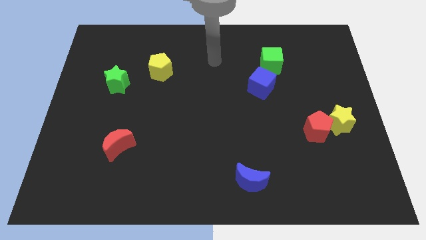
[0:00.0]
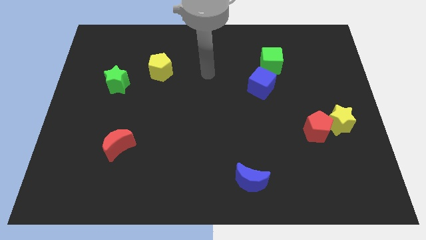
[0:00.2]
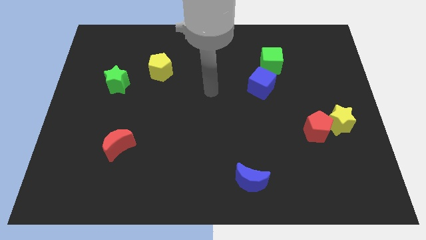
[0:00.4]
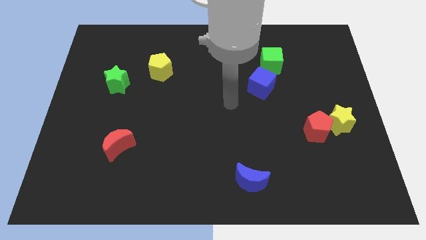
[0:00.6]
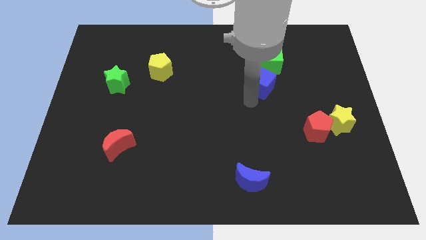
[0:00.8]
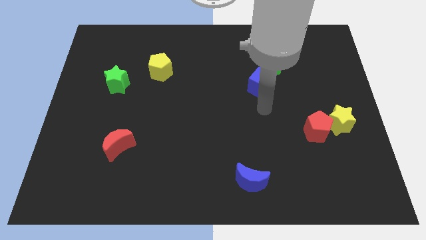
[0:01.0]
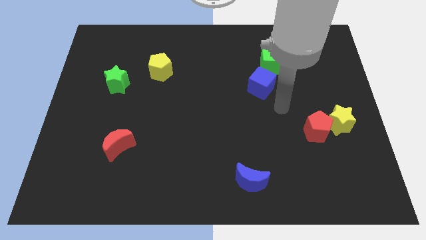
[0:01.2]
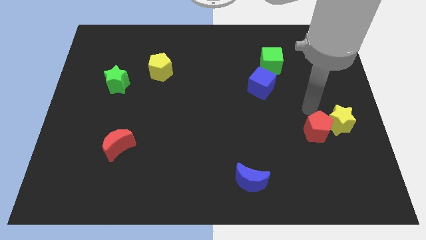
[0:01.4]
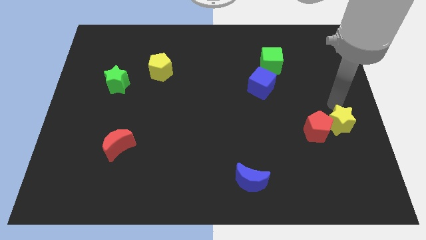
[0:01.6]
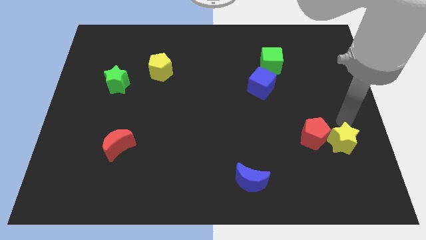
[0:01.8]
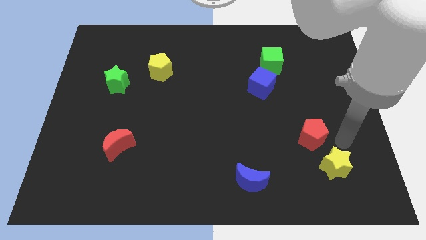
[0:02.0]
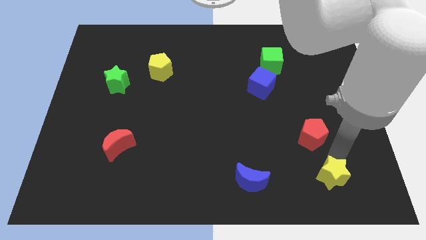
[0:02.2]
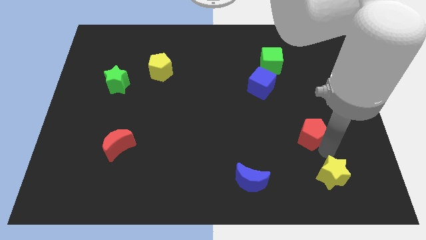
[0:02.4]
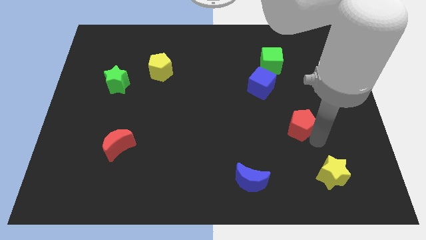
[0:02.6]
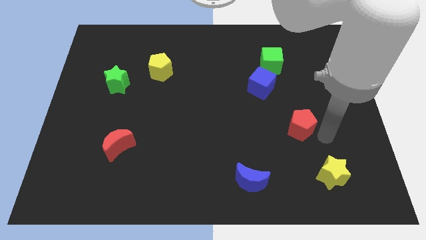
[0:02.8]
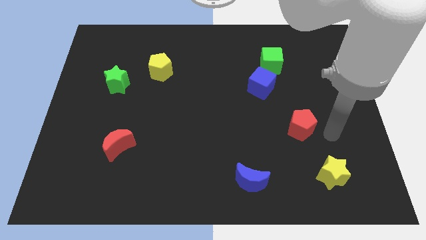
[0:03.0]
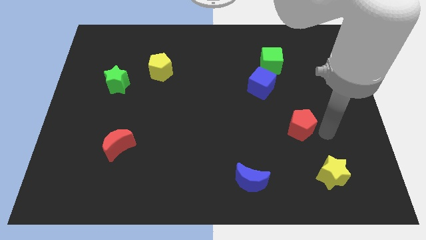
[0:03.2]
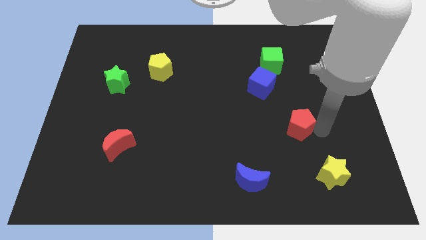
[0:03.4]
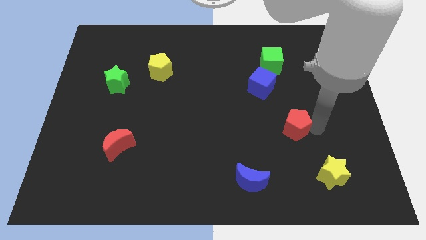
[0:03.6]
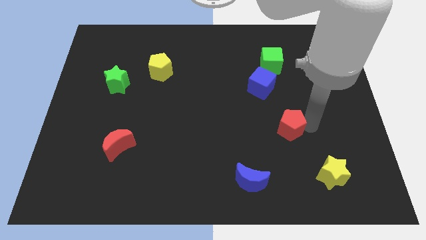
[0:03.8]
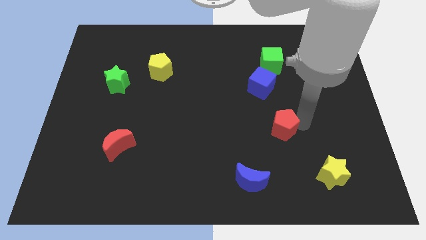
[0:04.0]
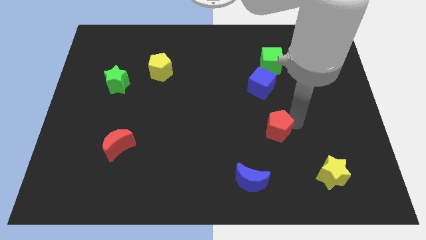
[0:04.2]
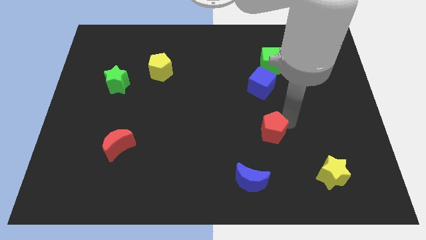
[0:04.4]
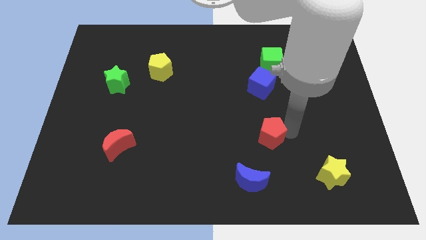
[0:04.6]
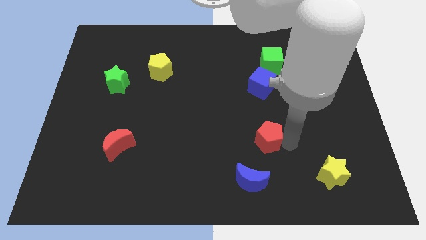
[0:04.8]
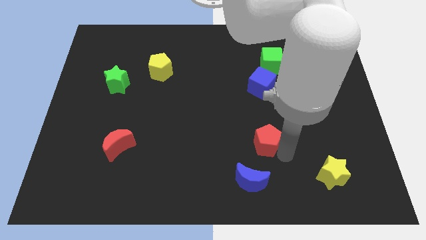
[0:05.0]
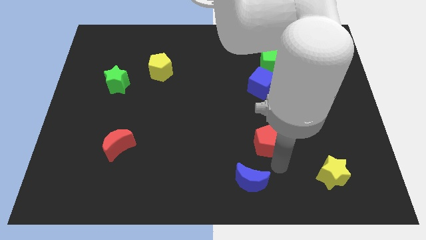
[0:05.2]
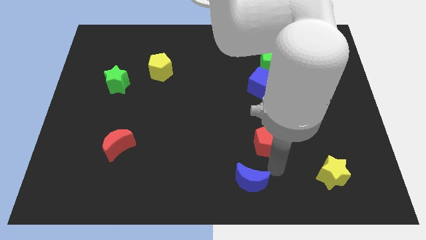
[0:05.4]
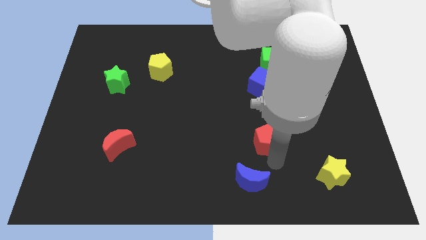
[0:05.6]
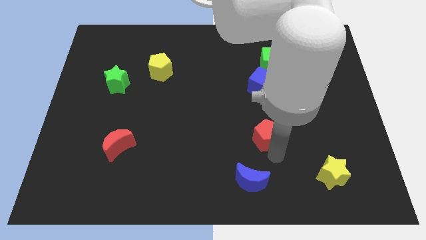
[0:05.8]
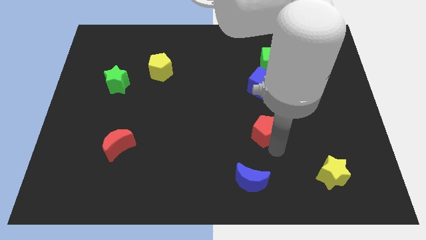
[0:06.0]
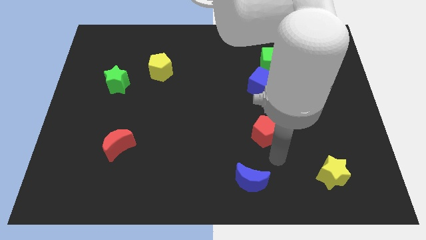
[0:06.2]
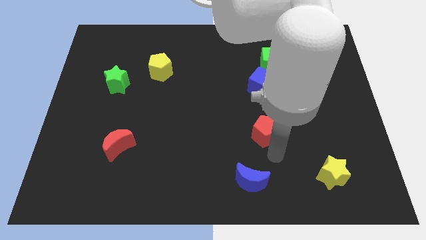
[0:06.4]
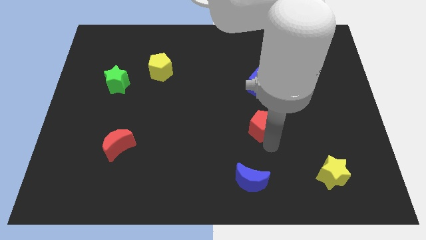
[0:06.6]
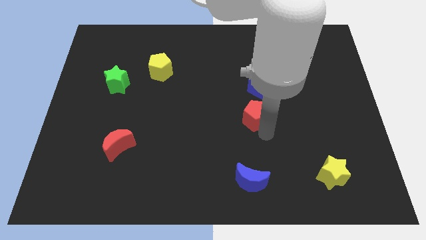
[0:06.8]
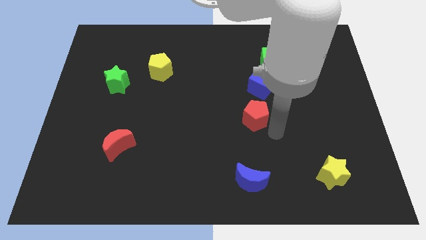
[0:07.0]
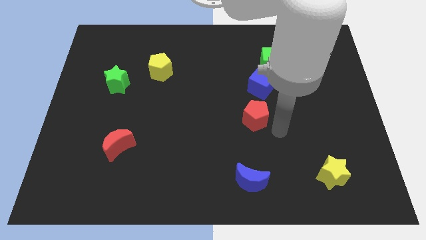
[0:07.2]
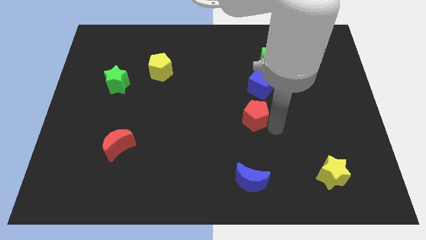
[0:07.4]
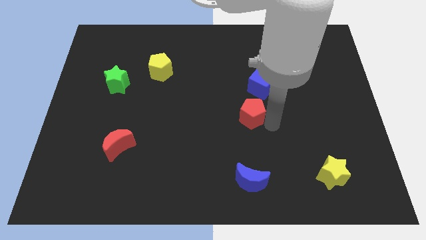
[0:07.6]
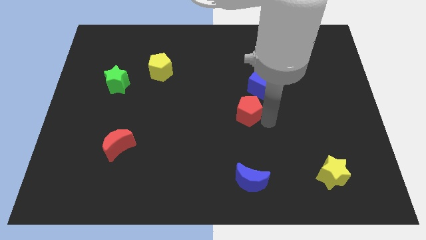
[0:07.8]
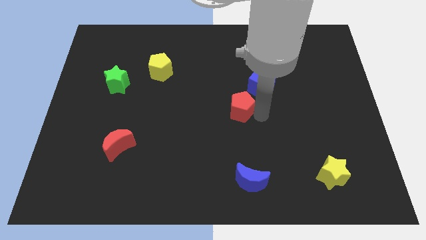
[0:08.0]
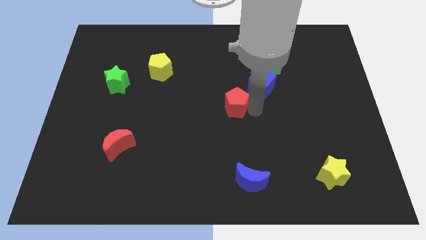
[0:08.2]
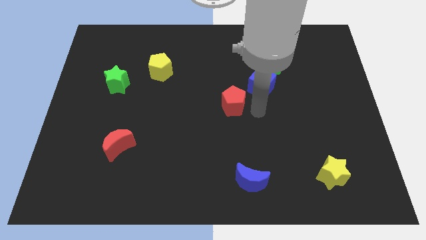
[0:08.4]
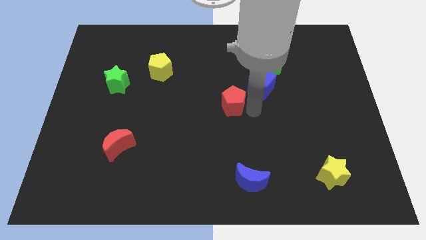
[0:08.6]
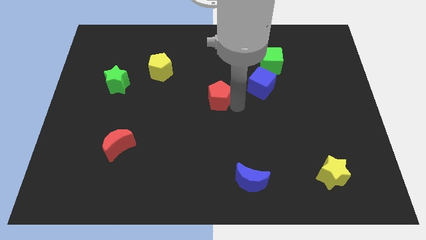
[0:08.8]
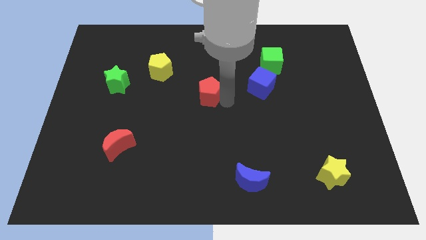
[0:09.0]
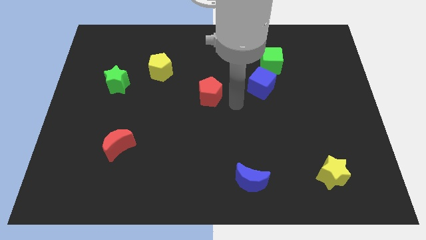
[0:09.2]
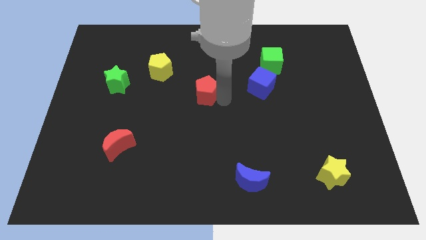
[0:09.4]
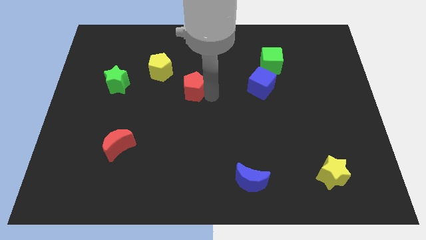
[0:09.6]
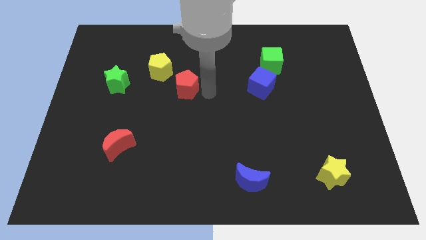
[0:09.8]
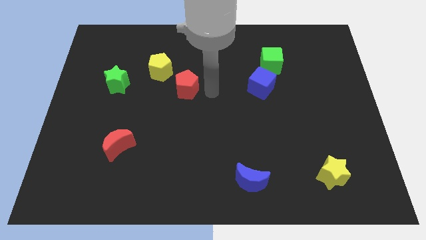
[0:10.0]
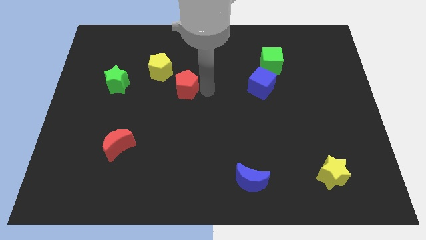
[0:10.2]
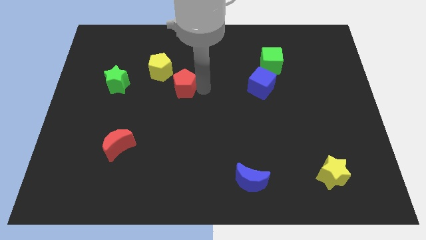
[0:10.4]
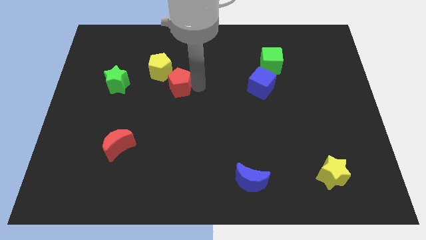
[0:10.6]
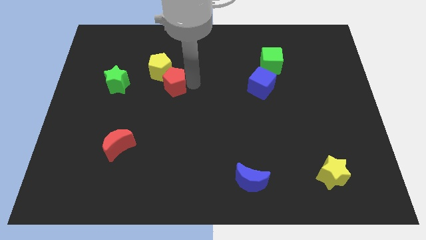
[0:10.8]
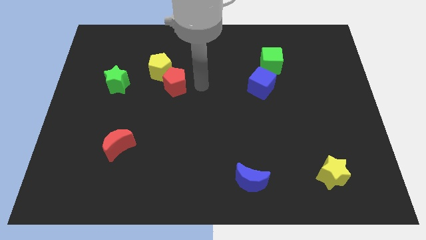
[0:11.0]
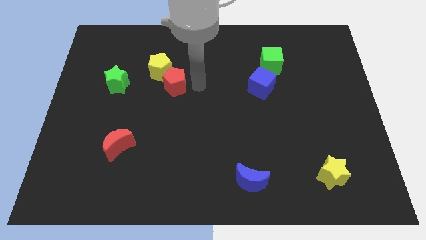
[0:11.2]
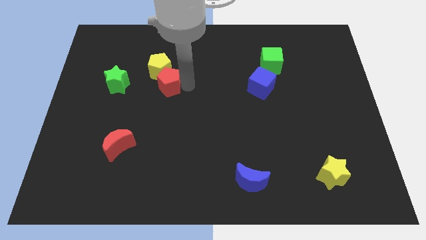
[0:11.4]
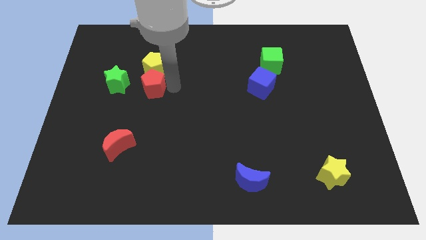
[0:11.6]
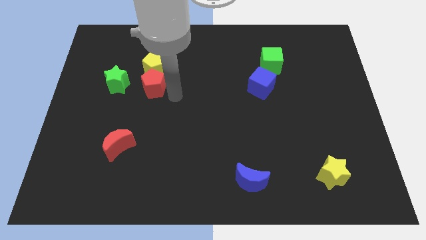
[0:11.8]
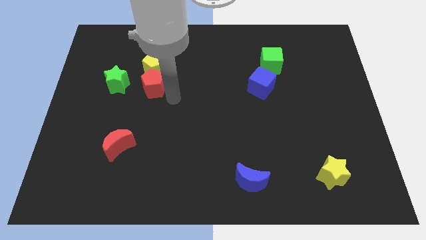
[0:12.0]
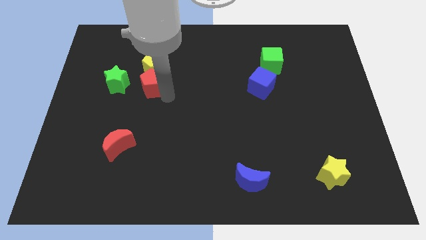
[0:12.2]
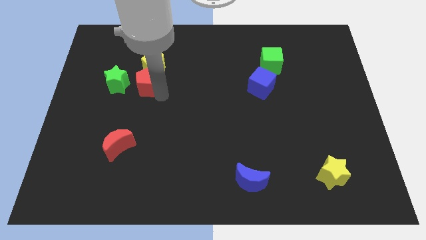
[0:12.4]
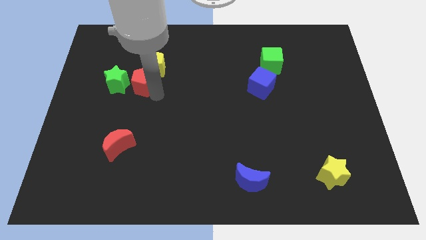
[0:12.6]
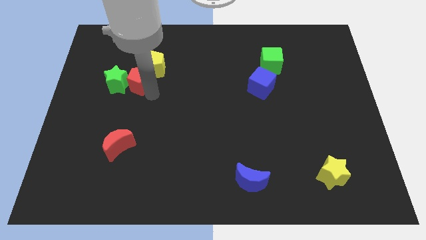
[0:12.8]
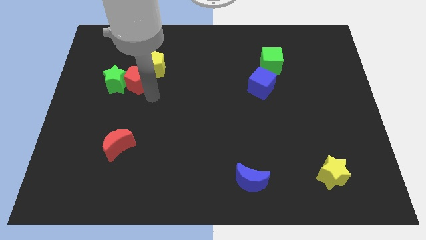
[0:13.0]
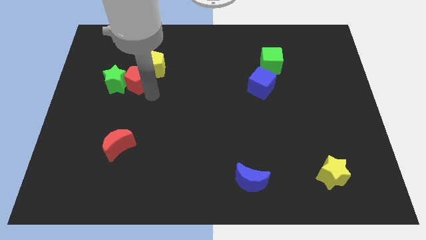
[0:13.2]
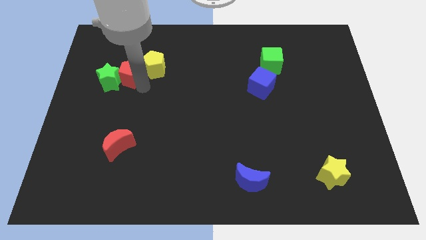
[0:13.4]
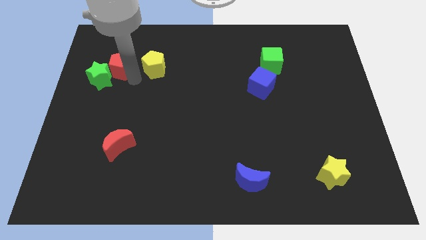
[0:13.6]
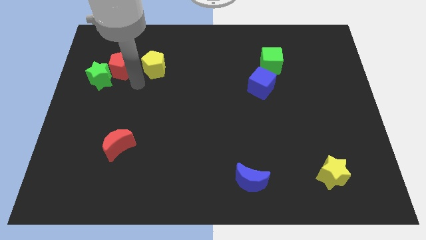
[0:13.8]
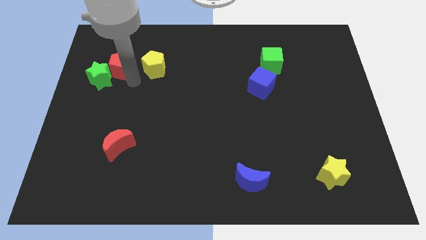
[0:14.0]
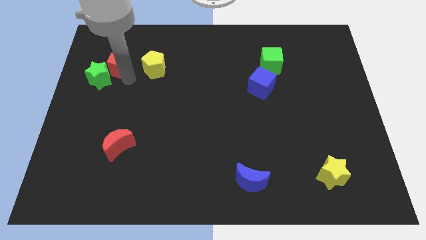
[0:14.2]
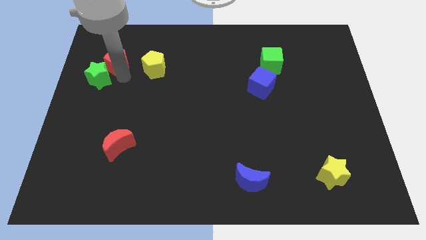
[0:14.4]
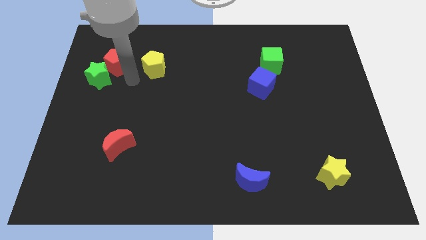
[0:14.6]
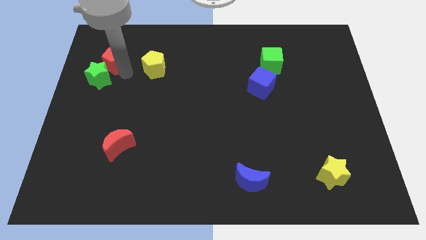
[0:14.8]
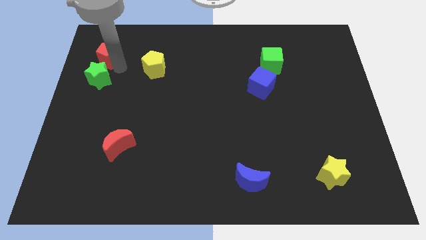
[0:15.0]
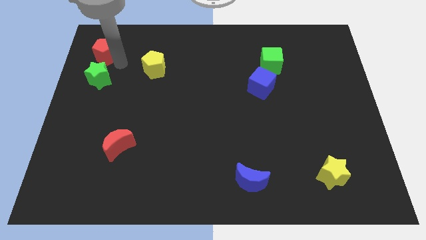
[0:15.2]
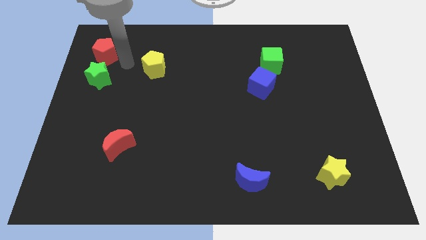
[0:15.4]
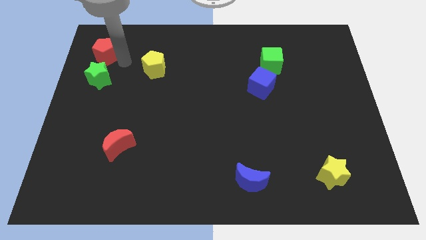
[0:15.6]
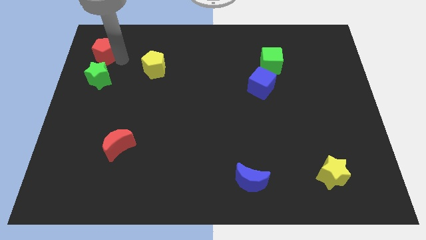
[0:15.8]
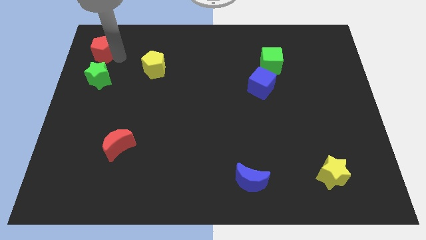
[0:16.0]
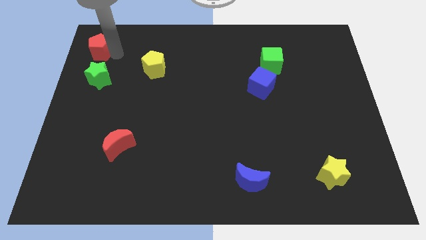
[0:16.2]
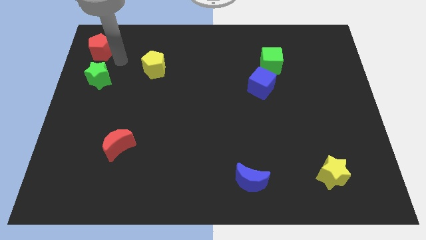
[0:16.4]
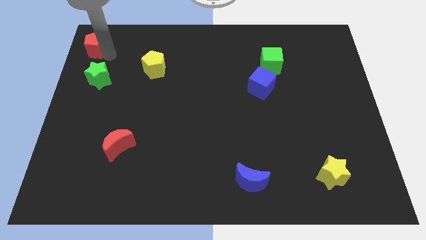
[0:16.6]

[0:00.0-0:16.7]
put the red pentagon to the top left corner
